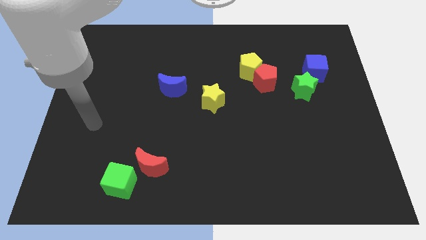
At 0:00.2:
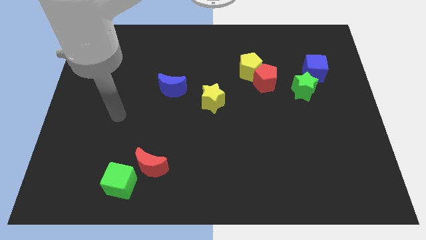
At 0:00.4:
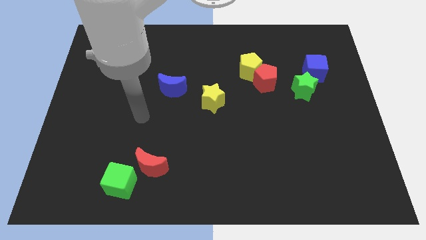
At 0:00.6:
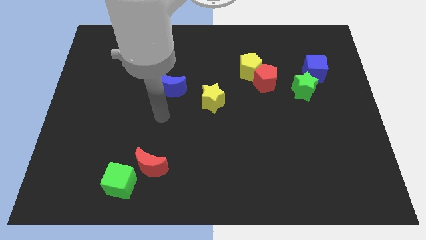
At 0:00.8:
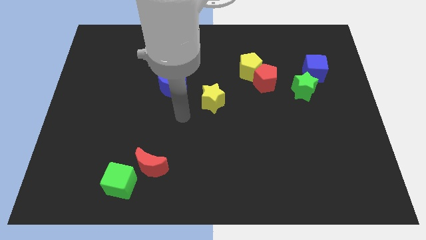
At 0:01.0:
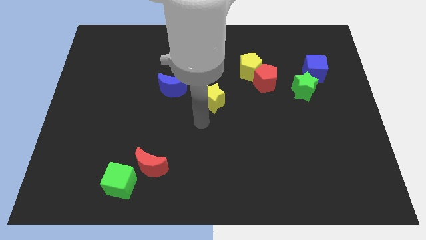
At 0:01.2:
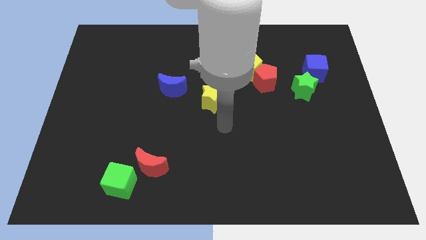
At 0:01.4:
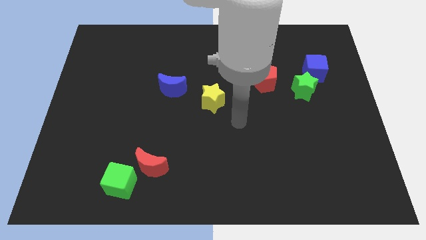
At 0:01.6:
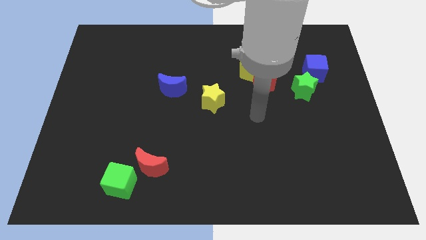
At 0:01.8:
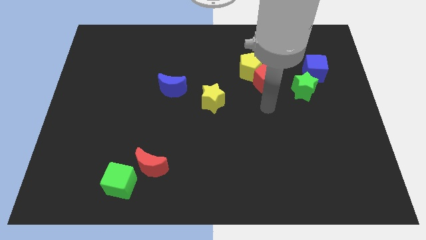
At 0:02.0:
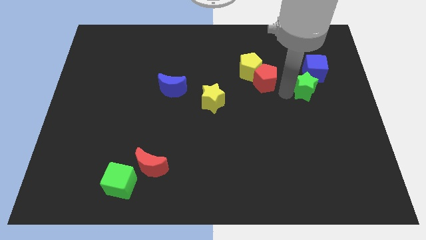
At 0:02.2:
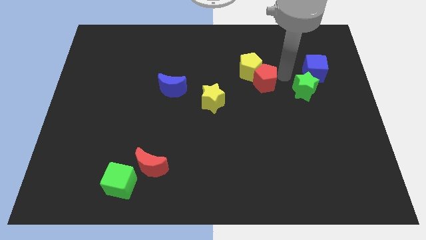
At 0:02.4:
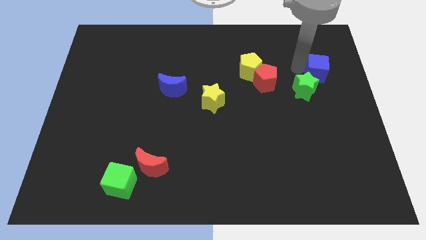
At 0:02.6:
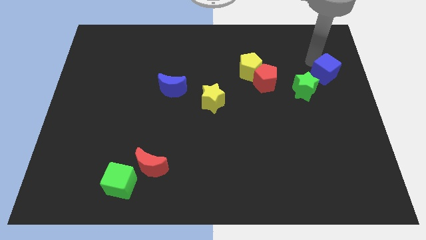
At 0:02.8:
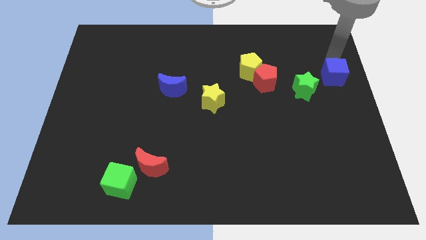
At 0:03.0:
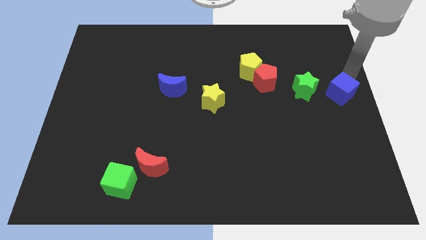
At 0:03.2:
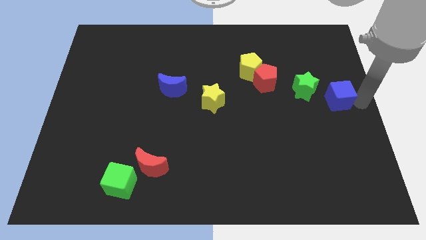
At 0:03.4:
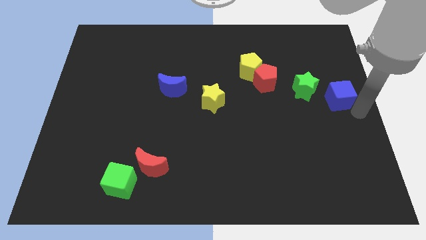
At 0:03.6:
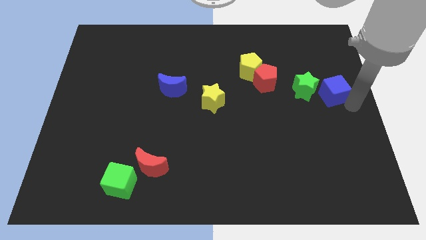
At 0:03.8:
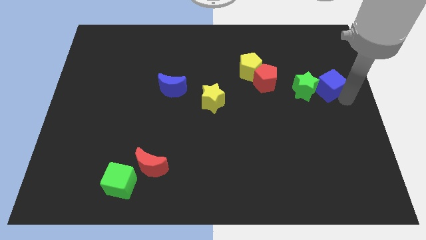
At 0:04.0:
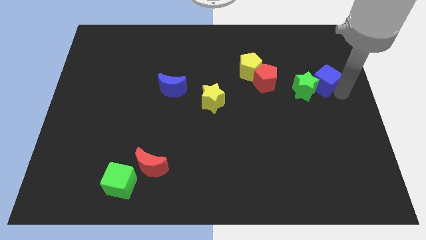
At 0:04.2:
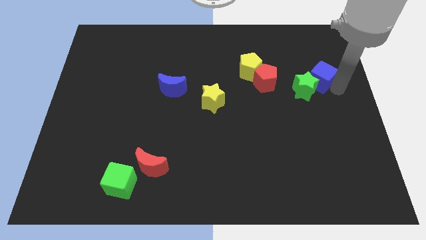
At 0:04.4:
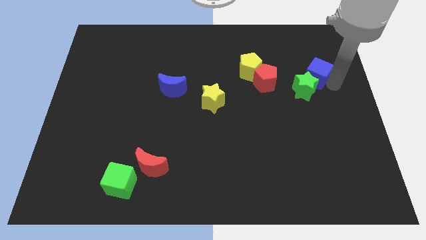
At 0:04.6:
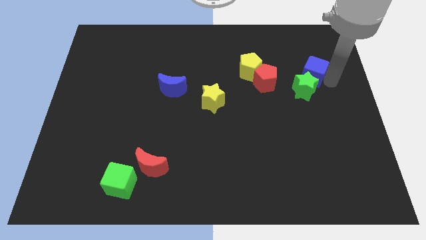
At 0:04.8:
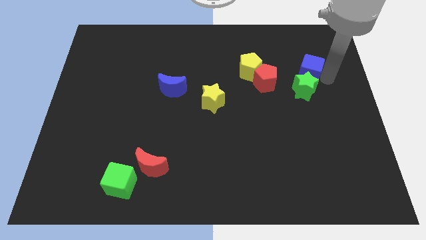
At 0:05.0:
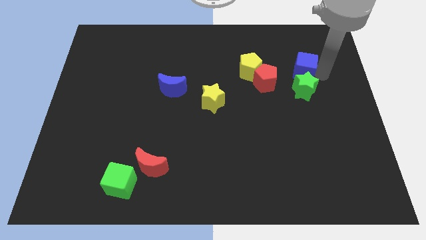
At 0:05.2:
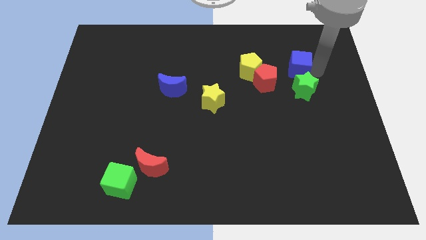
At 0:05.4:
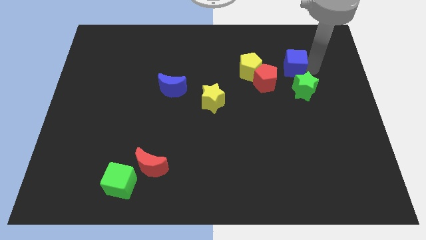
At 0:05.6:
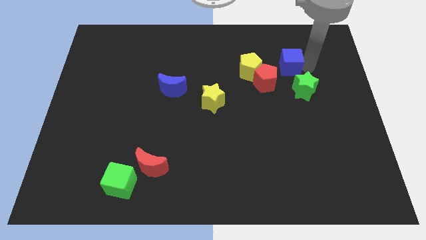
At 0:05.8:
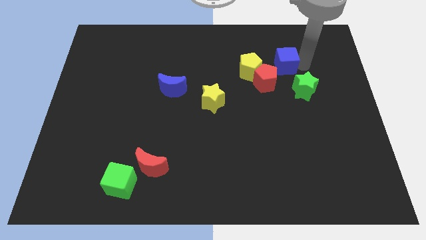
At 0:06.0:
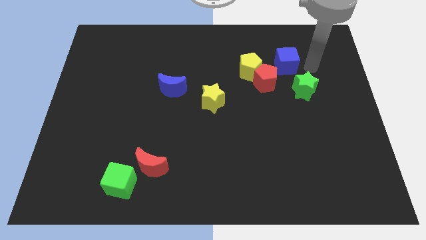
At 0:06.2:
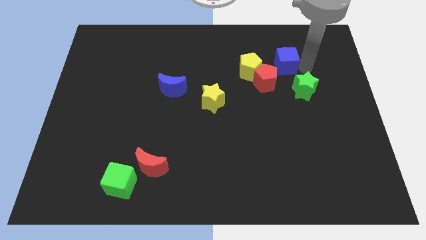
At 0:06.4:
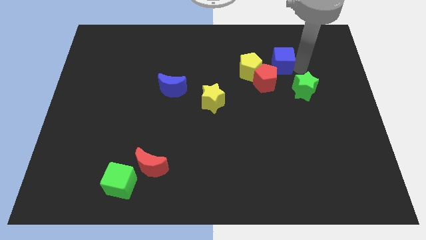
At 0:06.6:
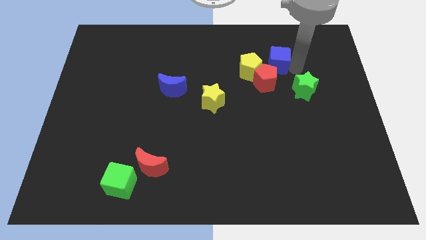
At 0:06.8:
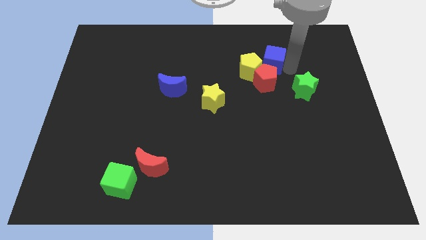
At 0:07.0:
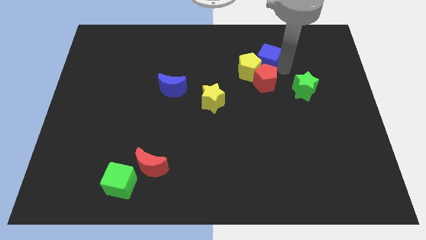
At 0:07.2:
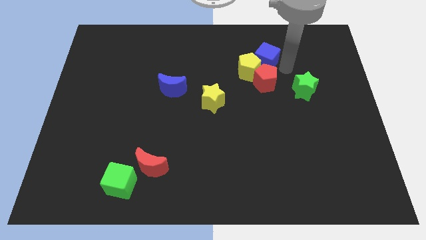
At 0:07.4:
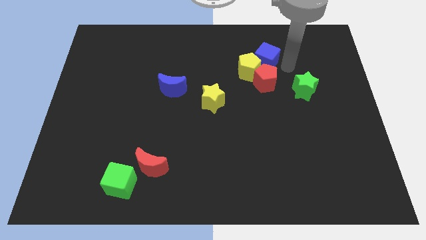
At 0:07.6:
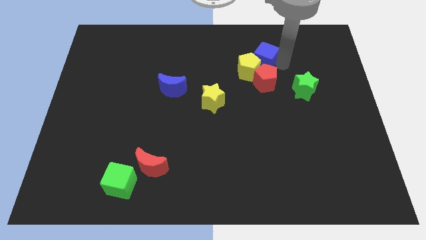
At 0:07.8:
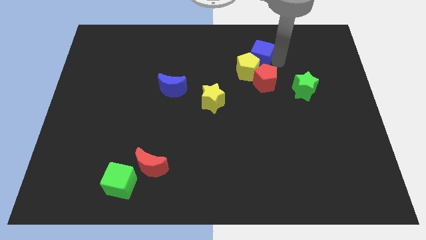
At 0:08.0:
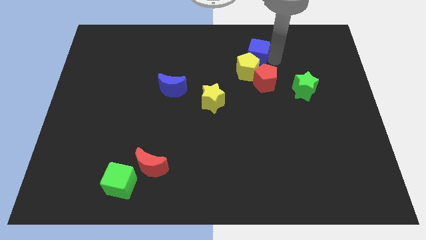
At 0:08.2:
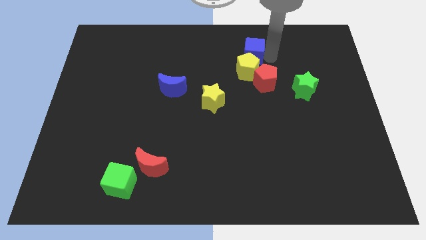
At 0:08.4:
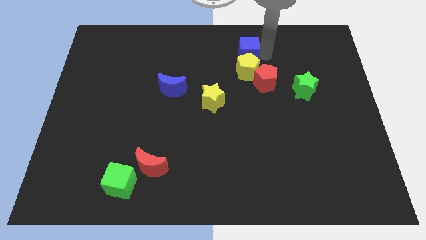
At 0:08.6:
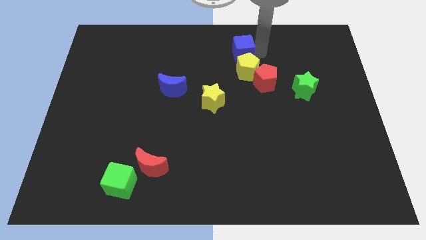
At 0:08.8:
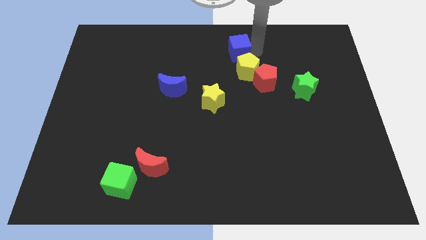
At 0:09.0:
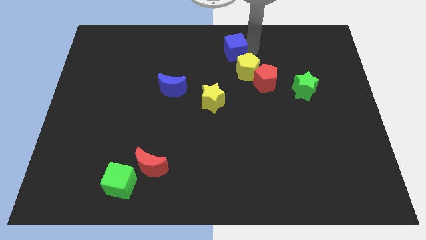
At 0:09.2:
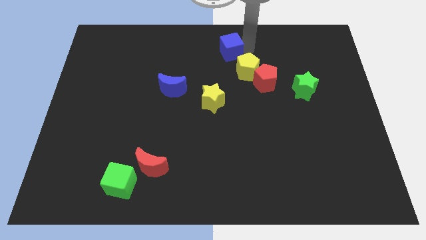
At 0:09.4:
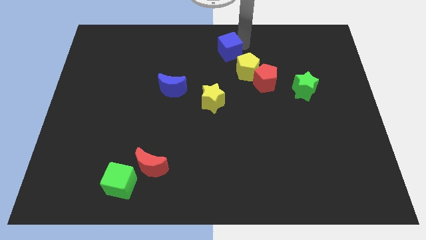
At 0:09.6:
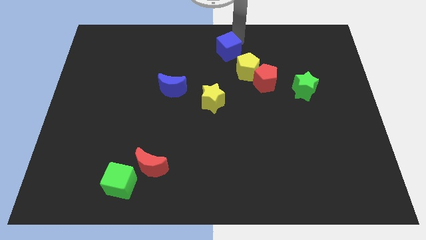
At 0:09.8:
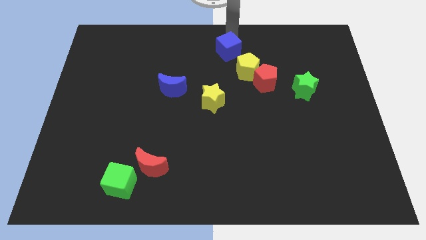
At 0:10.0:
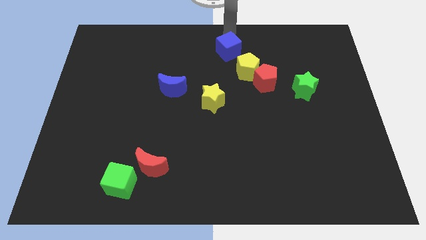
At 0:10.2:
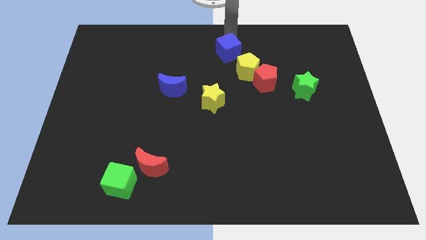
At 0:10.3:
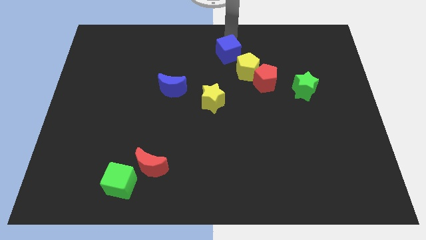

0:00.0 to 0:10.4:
push the blue cube to the left

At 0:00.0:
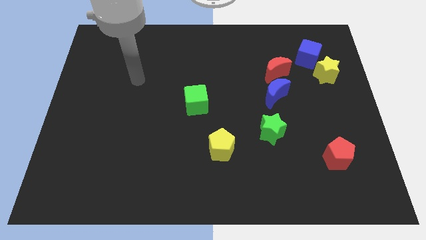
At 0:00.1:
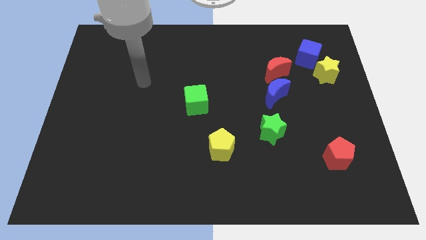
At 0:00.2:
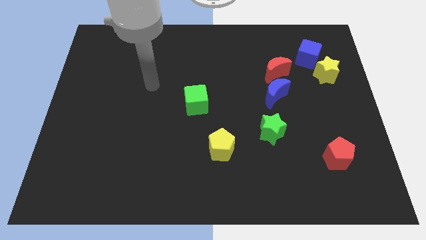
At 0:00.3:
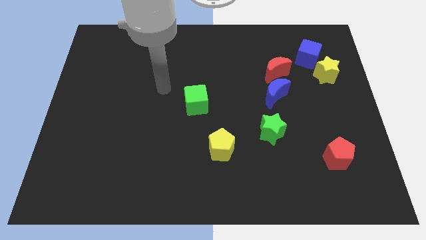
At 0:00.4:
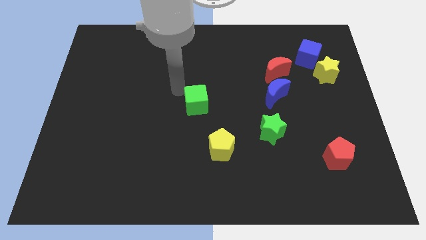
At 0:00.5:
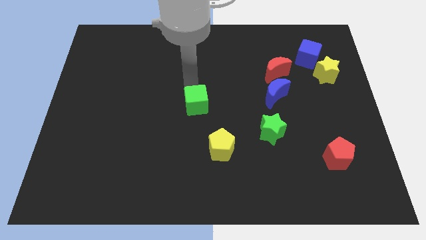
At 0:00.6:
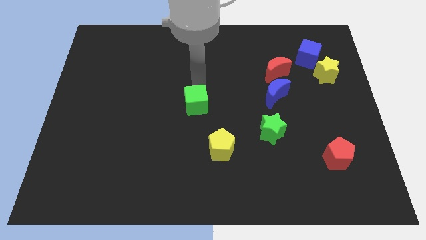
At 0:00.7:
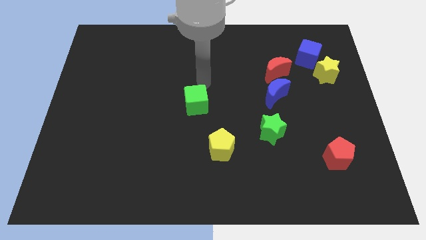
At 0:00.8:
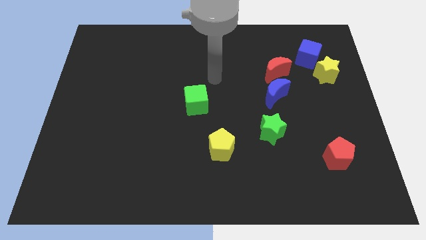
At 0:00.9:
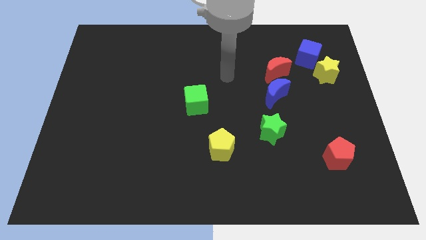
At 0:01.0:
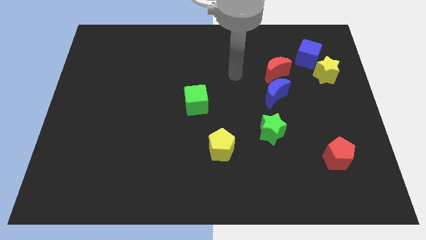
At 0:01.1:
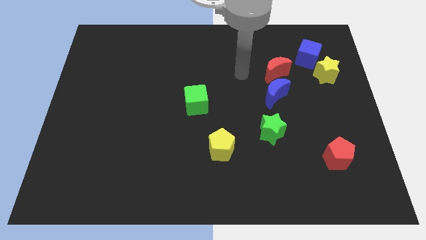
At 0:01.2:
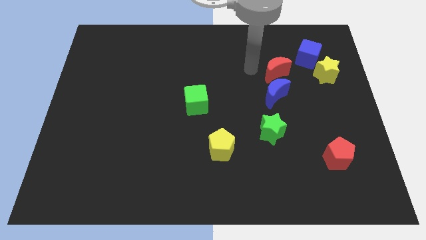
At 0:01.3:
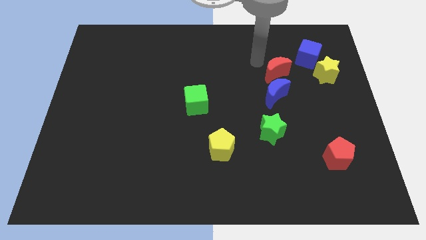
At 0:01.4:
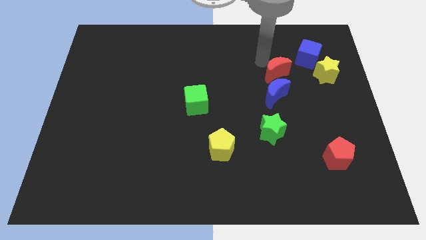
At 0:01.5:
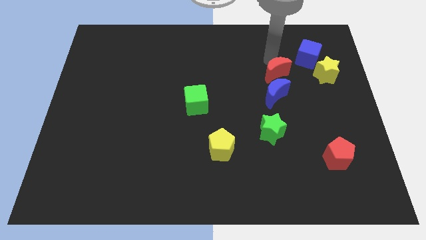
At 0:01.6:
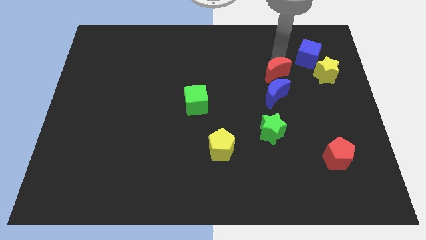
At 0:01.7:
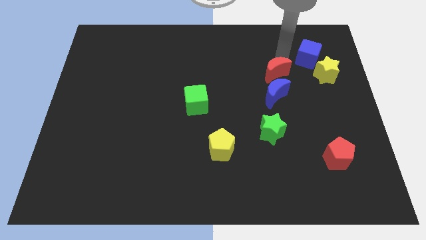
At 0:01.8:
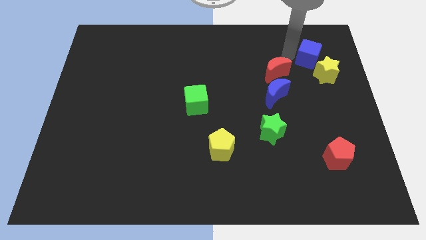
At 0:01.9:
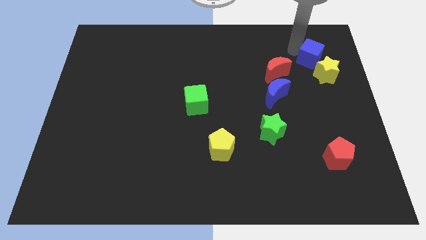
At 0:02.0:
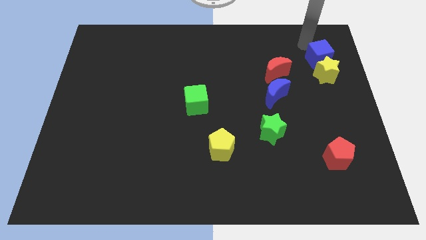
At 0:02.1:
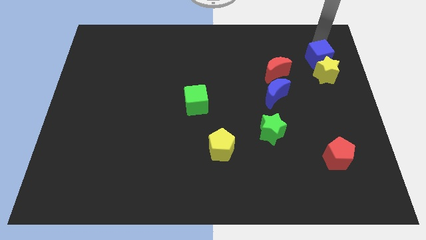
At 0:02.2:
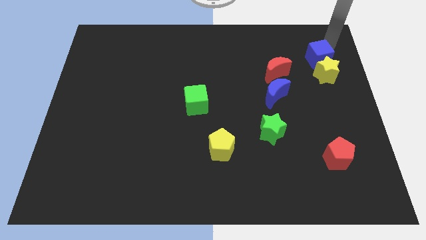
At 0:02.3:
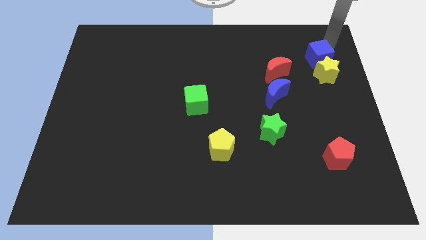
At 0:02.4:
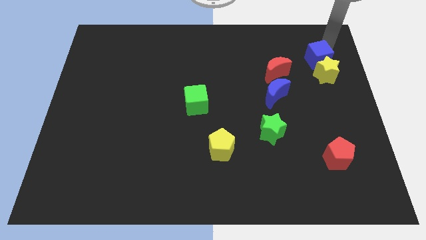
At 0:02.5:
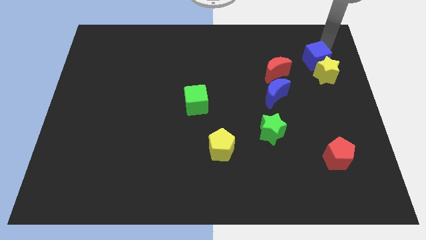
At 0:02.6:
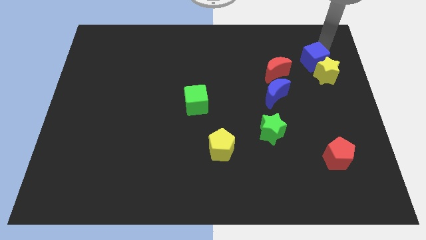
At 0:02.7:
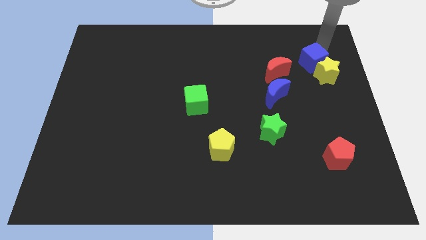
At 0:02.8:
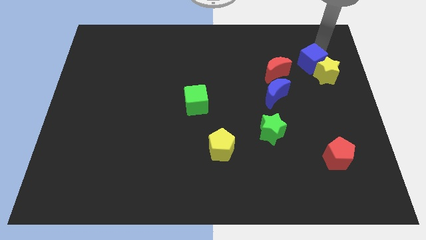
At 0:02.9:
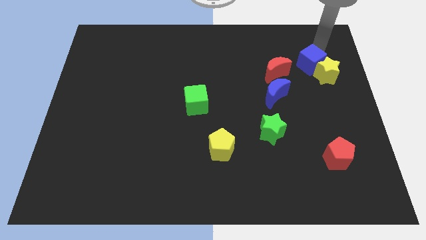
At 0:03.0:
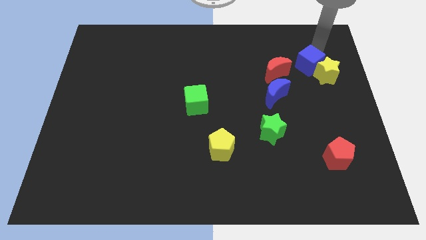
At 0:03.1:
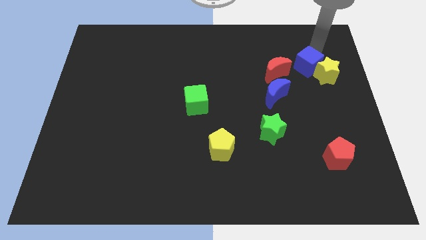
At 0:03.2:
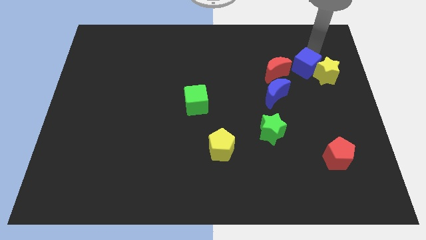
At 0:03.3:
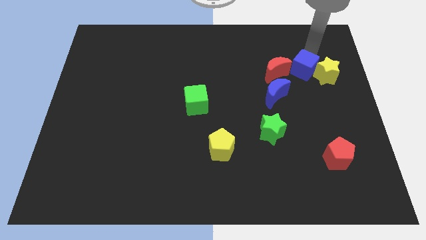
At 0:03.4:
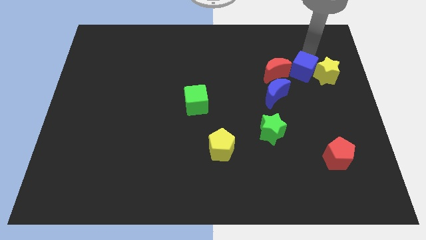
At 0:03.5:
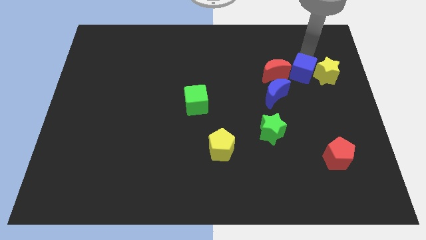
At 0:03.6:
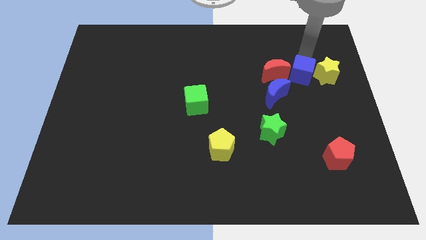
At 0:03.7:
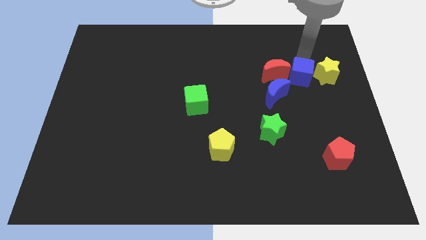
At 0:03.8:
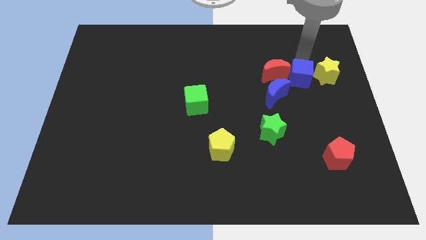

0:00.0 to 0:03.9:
push the blue cube downwards slightly
